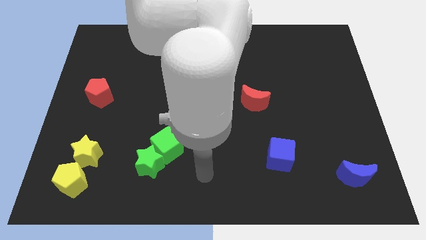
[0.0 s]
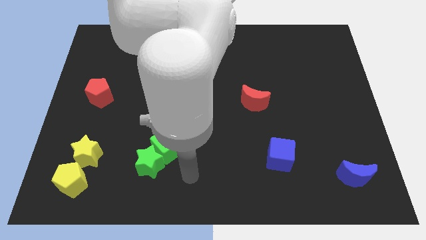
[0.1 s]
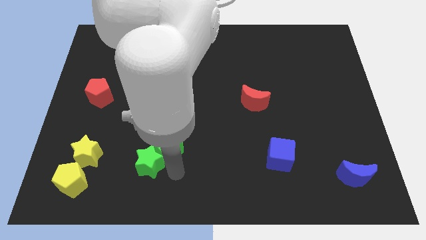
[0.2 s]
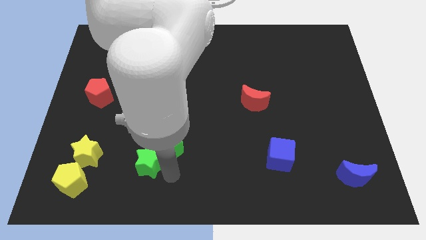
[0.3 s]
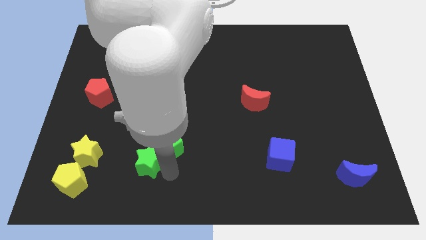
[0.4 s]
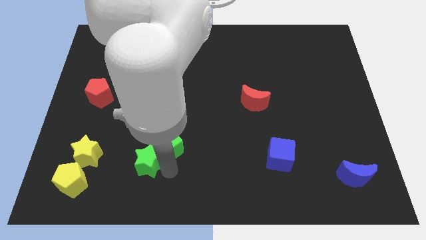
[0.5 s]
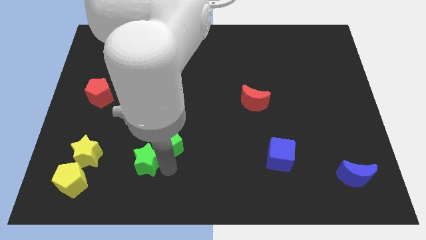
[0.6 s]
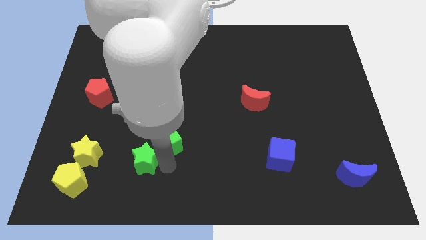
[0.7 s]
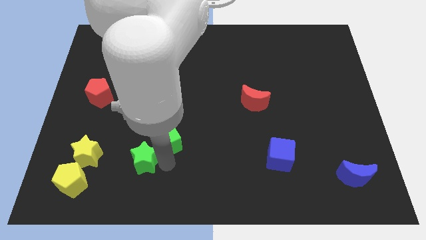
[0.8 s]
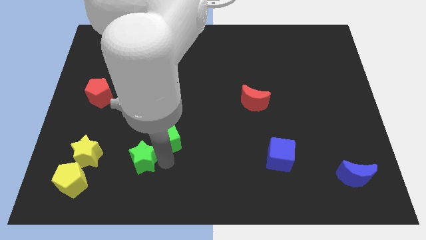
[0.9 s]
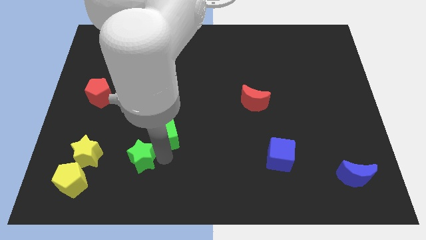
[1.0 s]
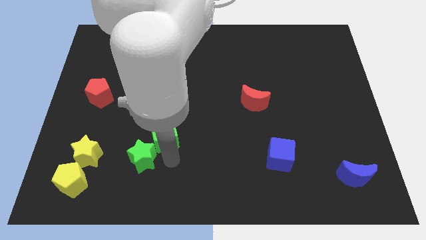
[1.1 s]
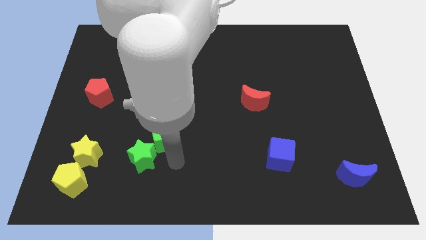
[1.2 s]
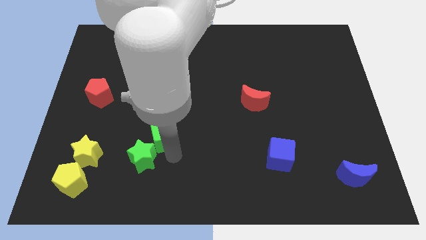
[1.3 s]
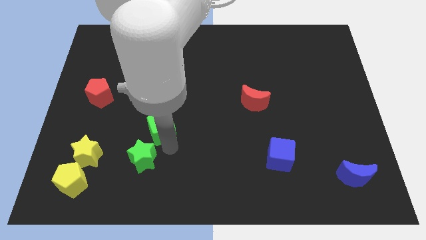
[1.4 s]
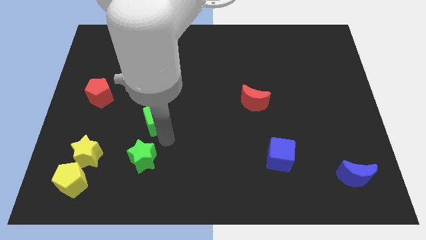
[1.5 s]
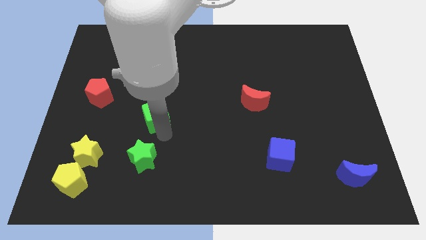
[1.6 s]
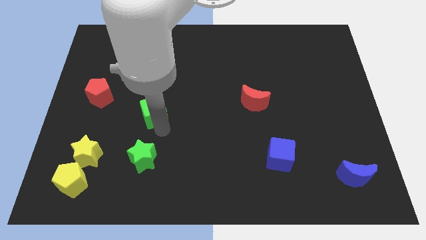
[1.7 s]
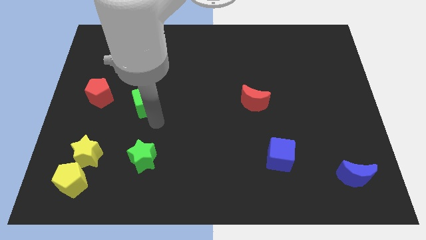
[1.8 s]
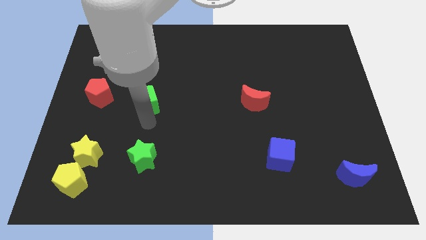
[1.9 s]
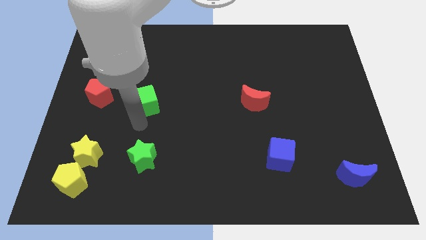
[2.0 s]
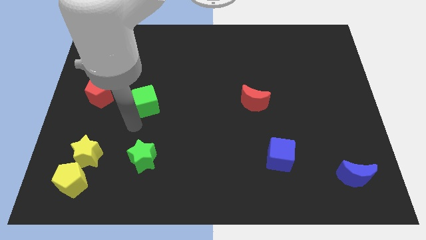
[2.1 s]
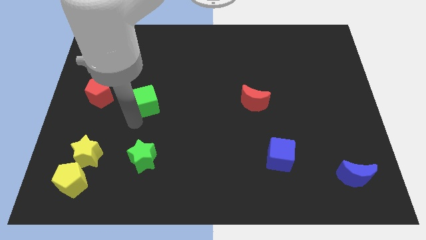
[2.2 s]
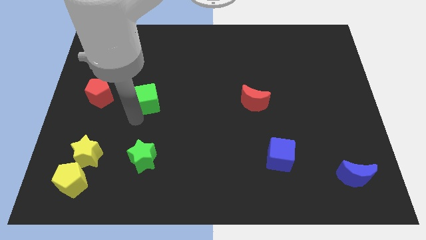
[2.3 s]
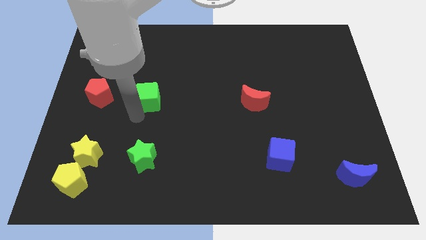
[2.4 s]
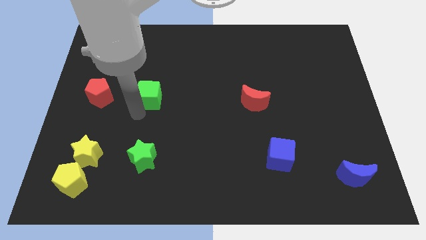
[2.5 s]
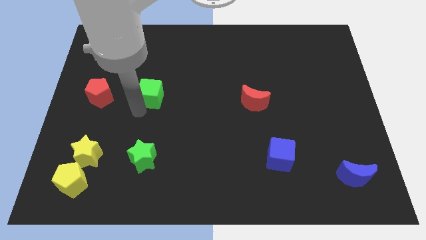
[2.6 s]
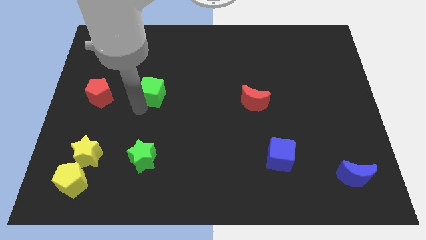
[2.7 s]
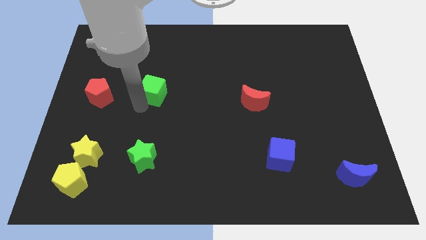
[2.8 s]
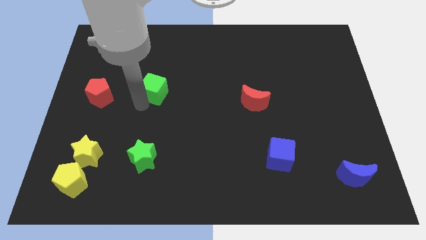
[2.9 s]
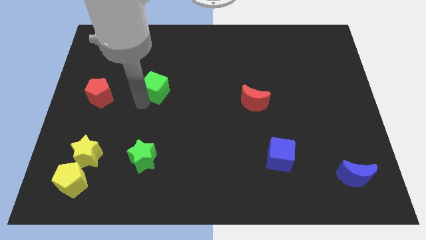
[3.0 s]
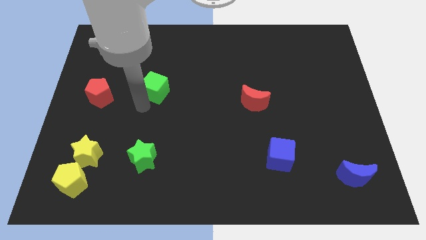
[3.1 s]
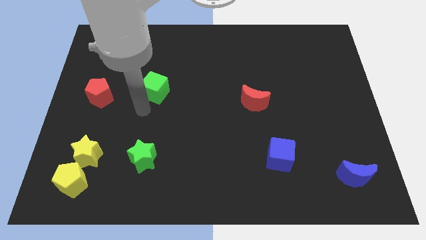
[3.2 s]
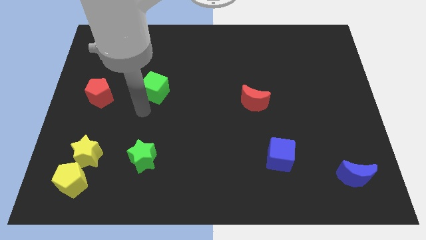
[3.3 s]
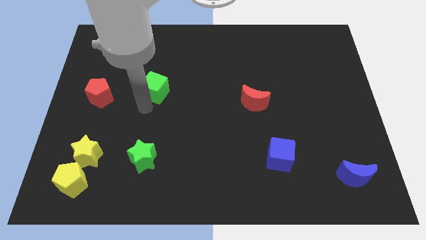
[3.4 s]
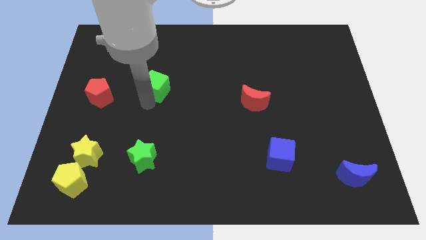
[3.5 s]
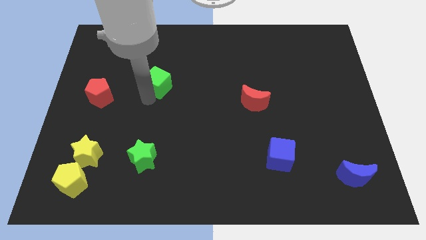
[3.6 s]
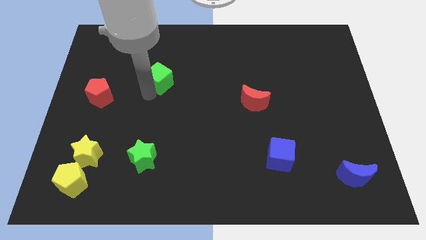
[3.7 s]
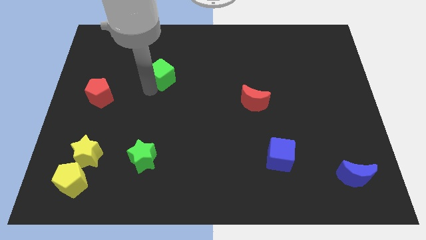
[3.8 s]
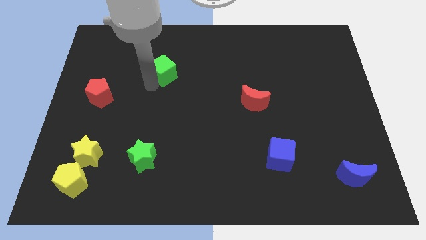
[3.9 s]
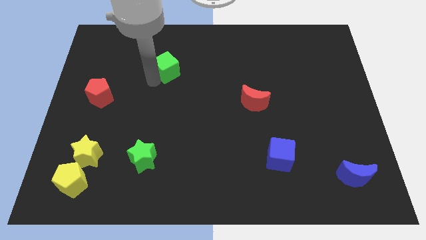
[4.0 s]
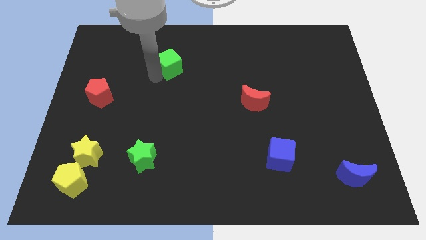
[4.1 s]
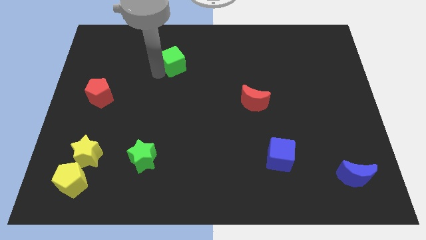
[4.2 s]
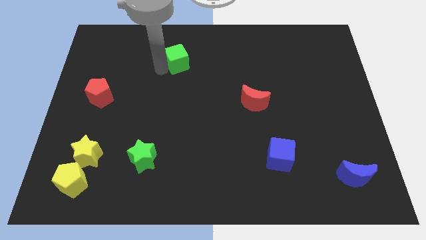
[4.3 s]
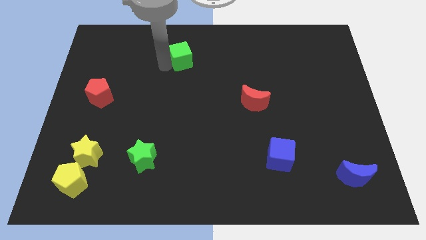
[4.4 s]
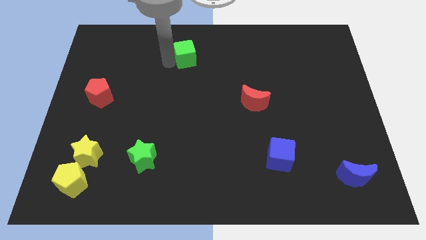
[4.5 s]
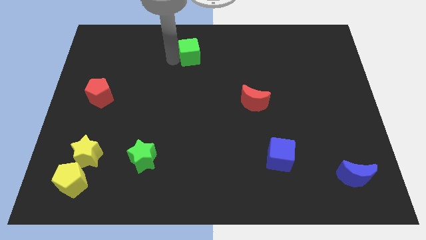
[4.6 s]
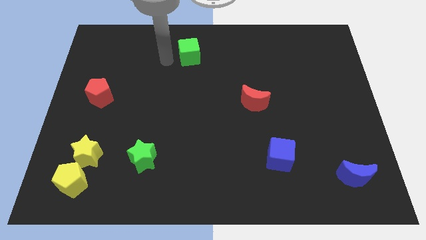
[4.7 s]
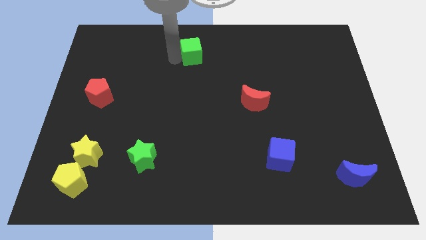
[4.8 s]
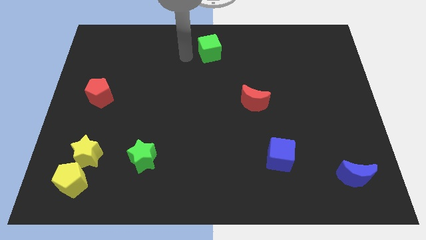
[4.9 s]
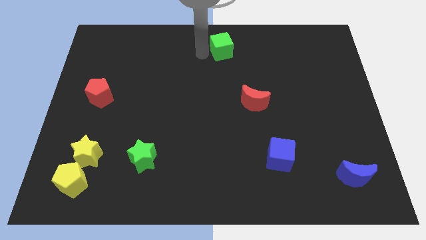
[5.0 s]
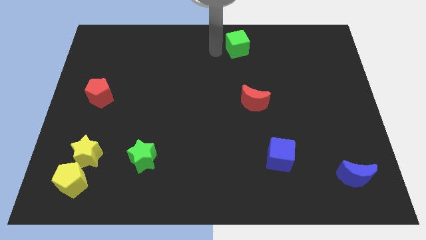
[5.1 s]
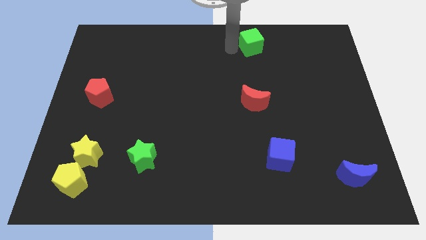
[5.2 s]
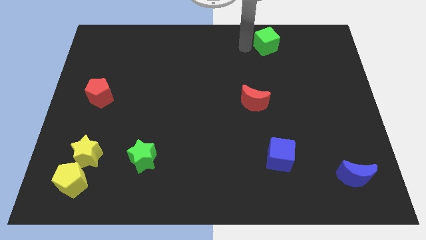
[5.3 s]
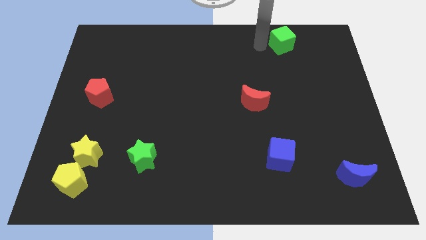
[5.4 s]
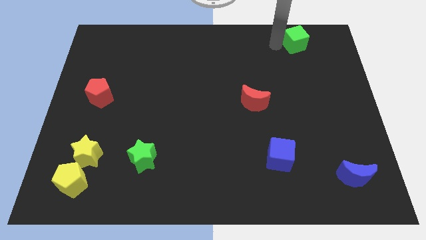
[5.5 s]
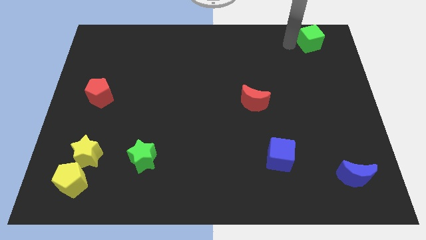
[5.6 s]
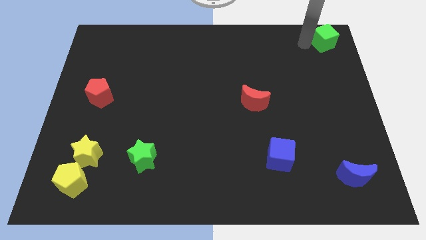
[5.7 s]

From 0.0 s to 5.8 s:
slide the green cube to the upper right corner

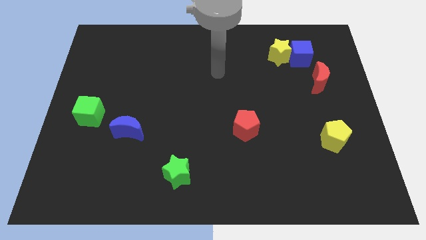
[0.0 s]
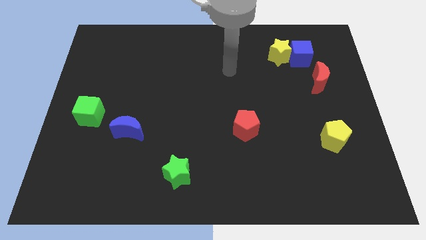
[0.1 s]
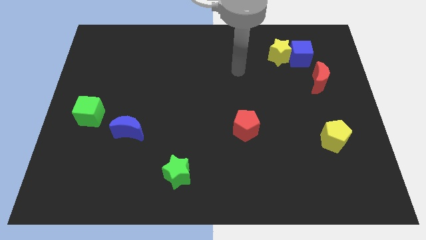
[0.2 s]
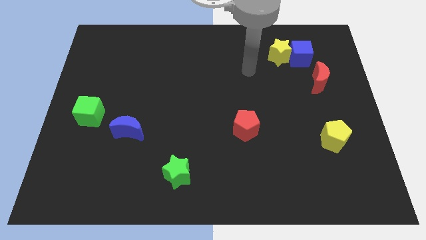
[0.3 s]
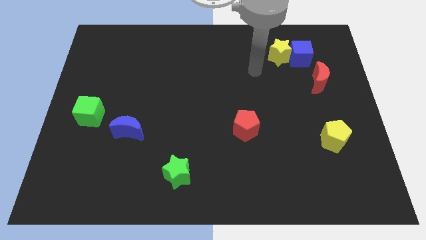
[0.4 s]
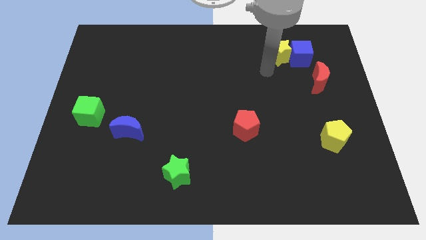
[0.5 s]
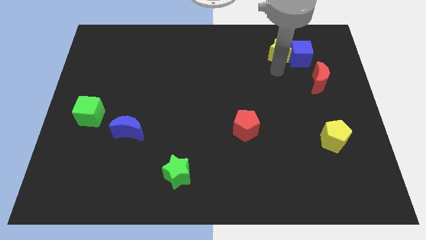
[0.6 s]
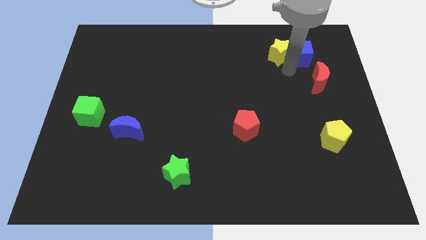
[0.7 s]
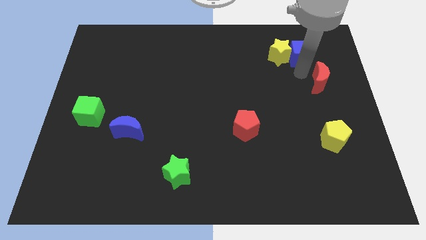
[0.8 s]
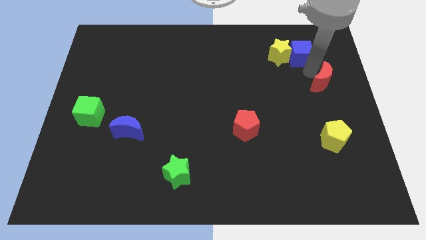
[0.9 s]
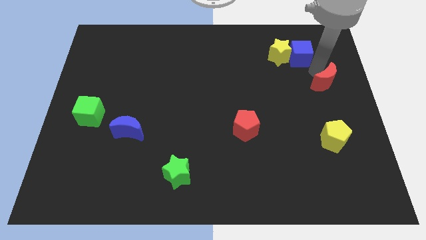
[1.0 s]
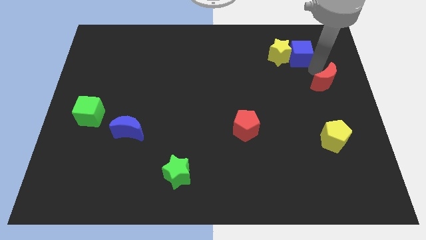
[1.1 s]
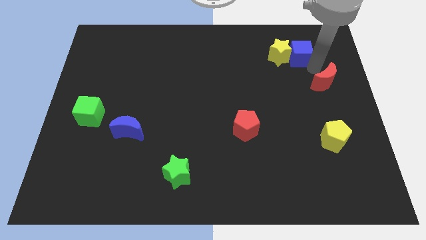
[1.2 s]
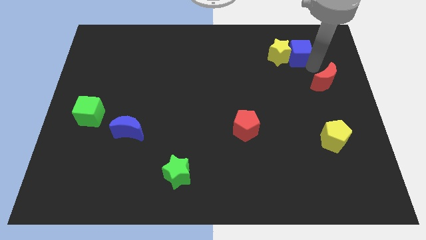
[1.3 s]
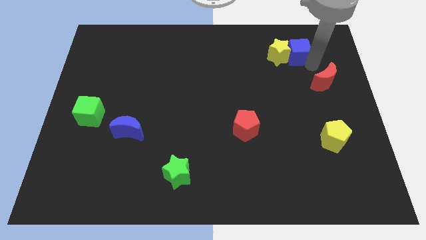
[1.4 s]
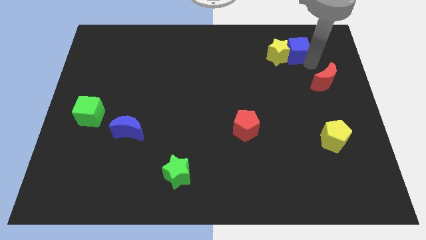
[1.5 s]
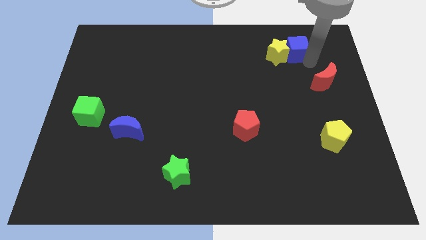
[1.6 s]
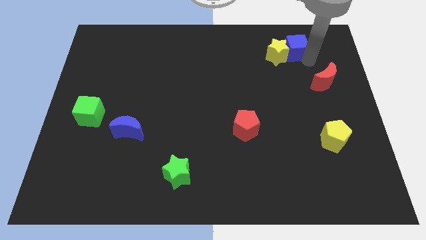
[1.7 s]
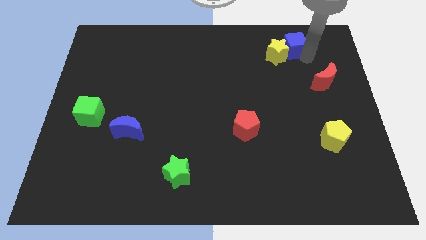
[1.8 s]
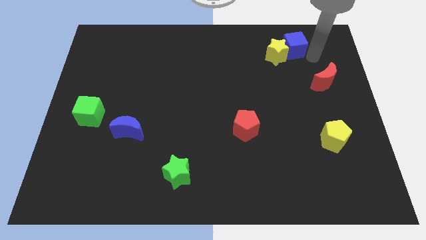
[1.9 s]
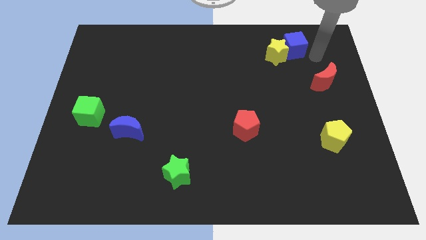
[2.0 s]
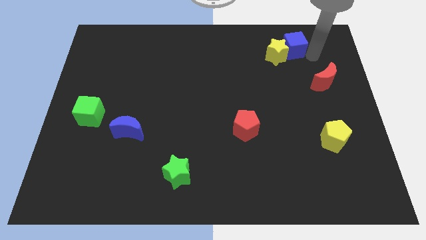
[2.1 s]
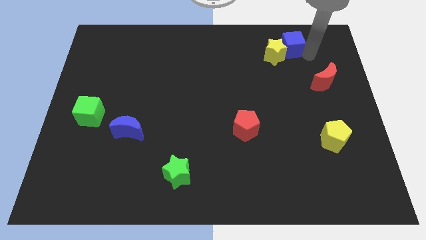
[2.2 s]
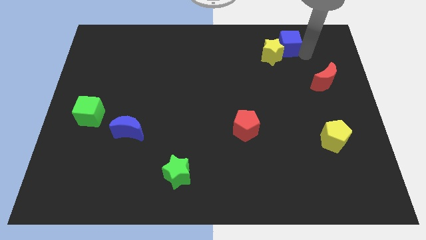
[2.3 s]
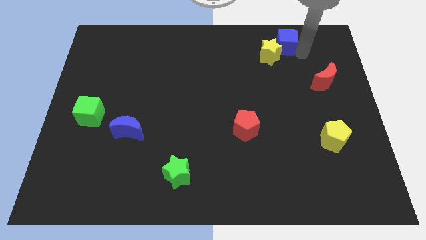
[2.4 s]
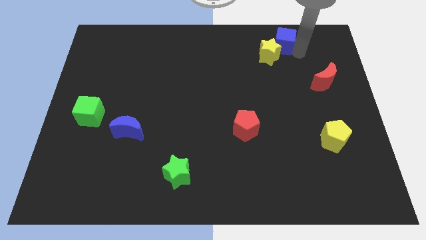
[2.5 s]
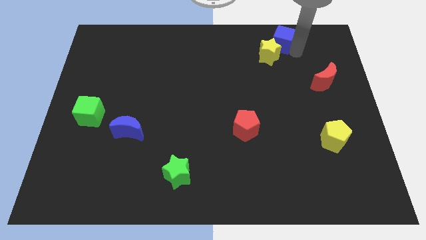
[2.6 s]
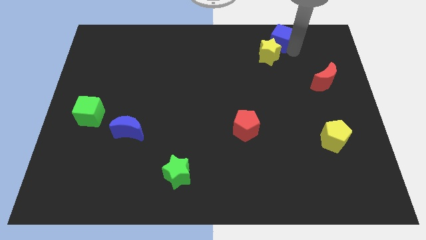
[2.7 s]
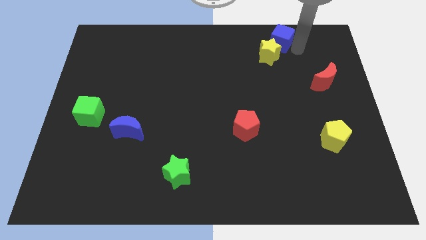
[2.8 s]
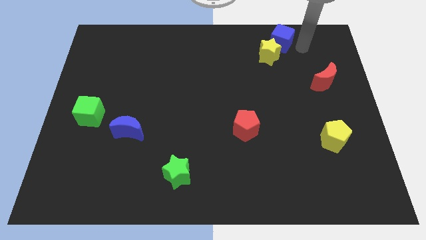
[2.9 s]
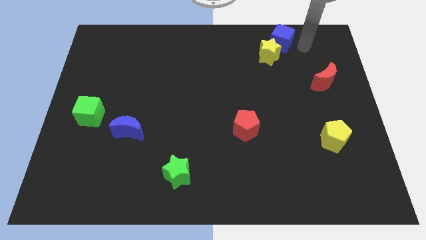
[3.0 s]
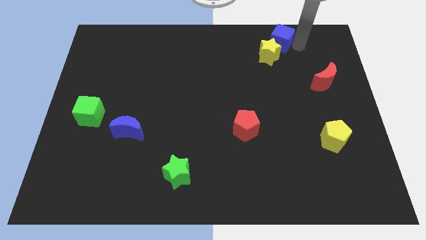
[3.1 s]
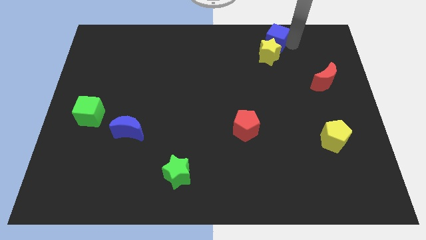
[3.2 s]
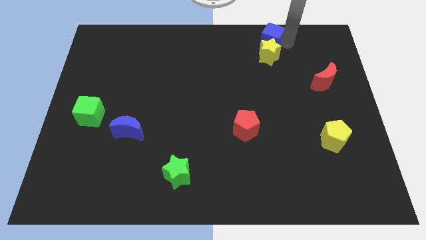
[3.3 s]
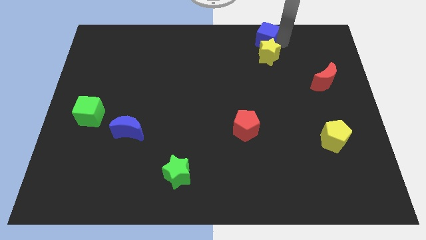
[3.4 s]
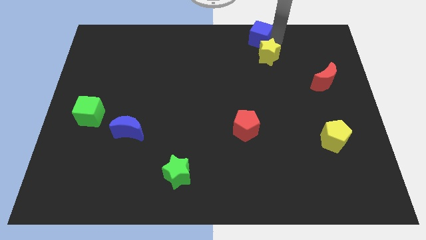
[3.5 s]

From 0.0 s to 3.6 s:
move the blue cube to the towards your base
